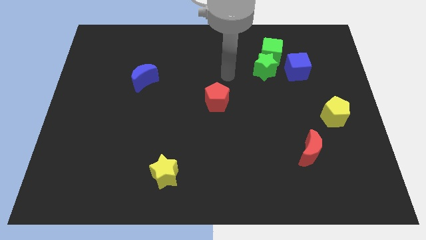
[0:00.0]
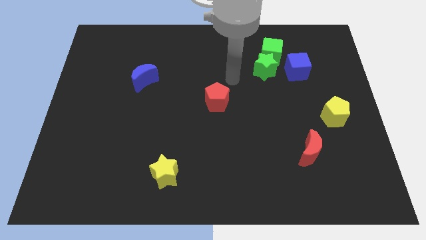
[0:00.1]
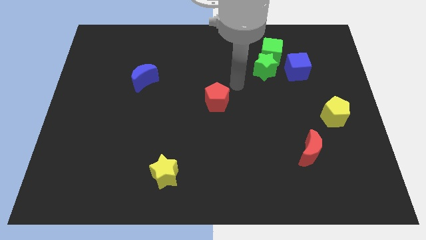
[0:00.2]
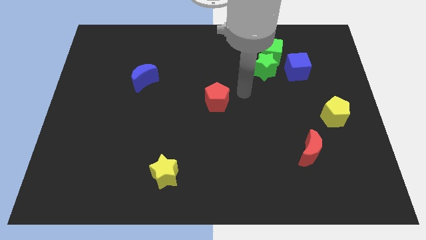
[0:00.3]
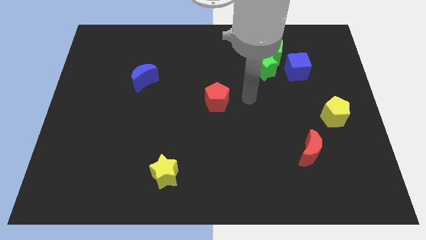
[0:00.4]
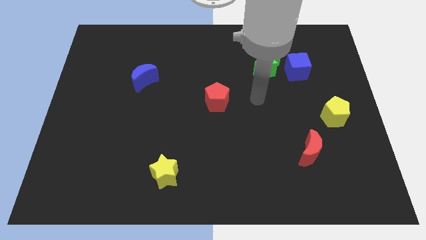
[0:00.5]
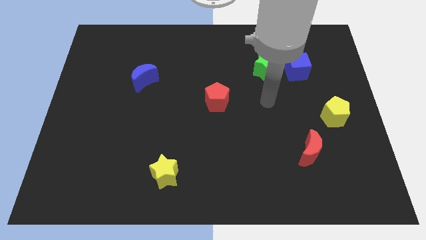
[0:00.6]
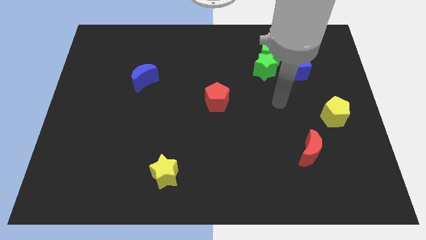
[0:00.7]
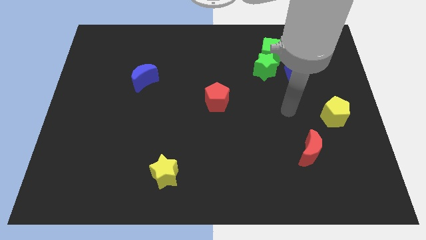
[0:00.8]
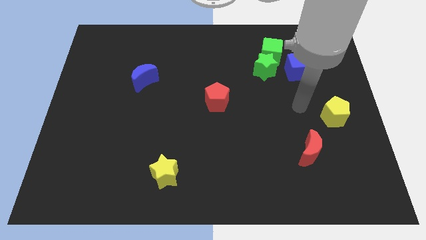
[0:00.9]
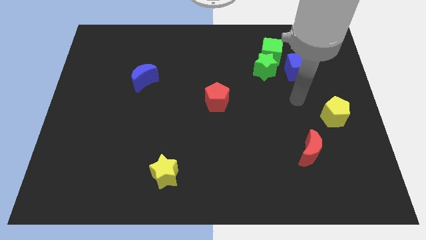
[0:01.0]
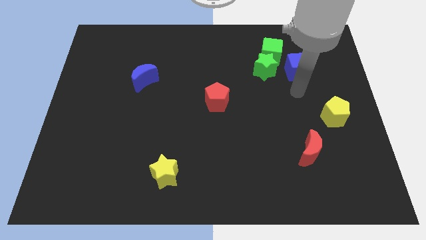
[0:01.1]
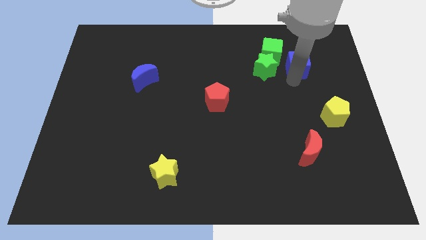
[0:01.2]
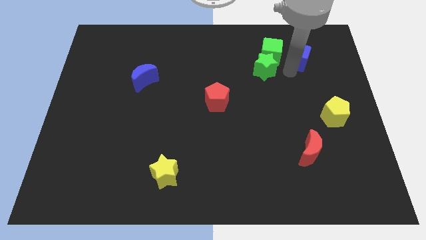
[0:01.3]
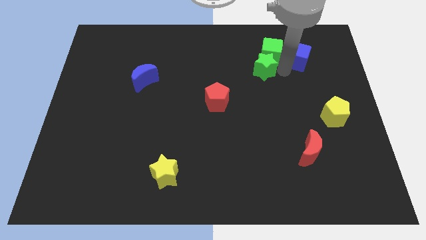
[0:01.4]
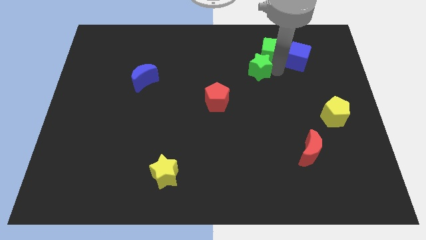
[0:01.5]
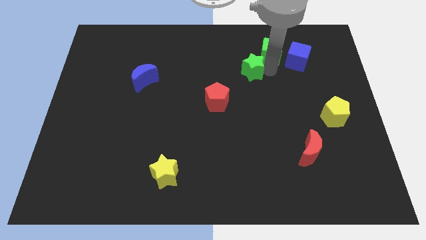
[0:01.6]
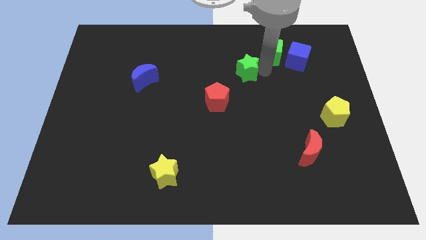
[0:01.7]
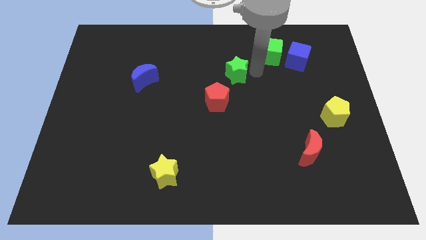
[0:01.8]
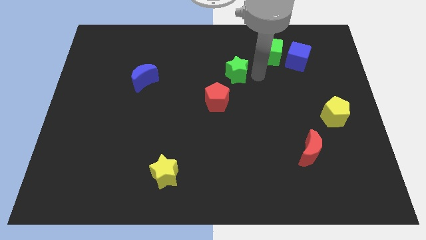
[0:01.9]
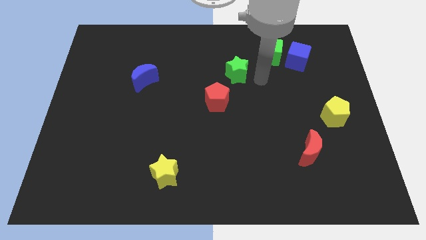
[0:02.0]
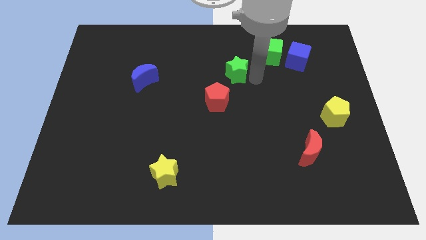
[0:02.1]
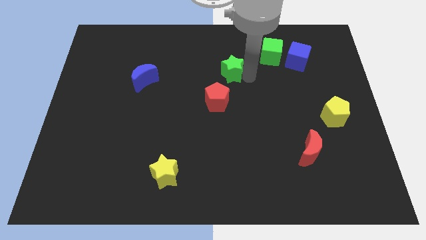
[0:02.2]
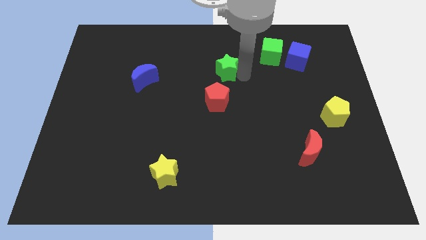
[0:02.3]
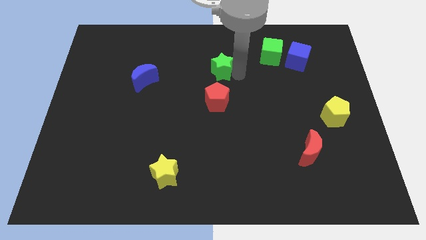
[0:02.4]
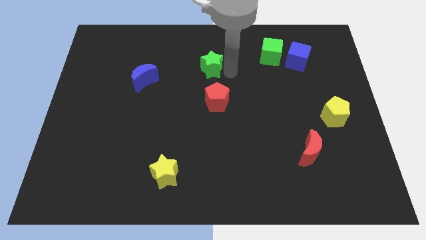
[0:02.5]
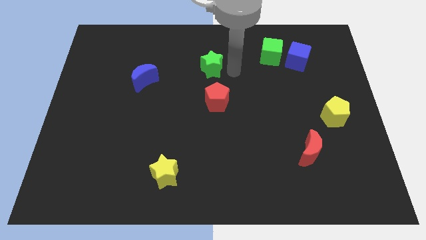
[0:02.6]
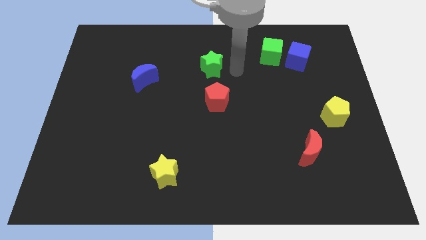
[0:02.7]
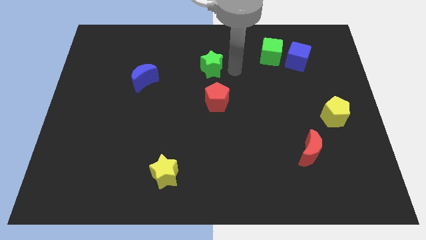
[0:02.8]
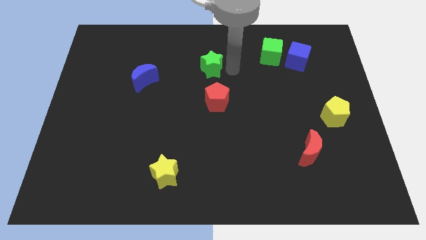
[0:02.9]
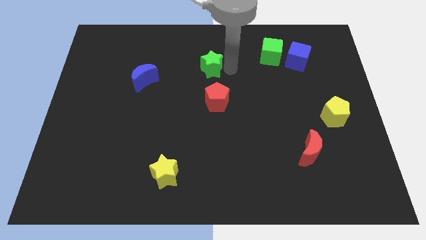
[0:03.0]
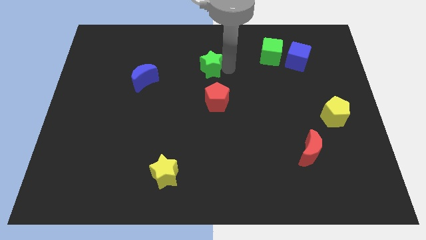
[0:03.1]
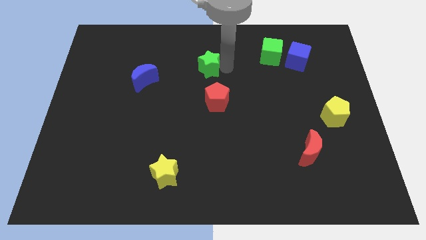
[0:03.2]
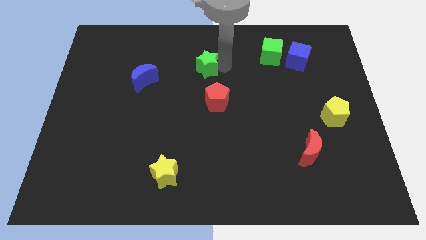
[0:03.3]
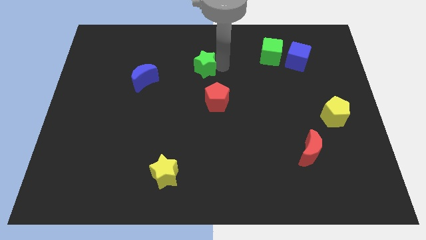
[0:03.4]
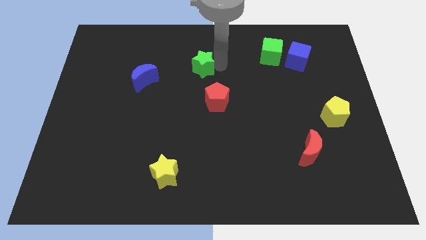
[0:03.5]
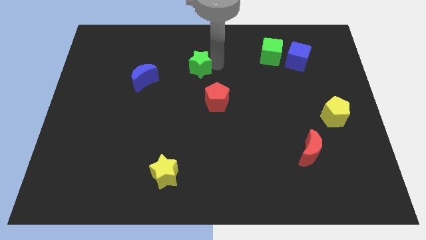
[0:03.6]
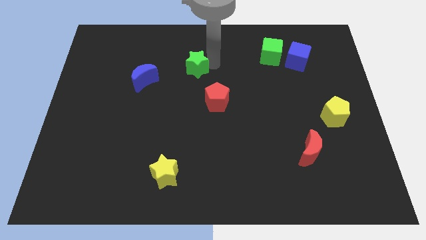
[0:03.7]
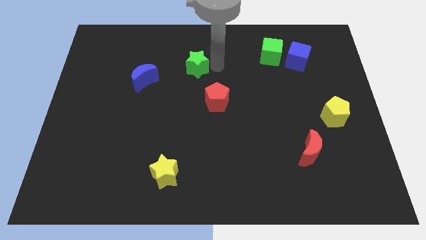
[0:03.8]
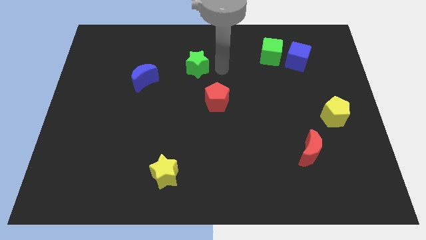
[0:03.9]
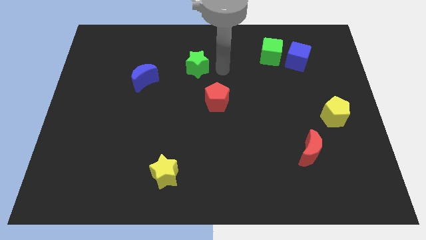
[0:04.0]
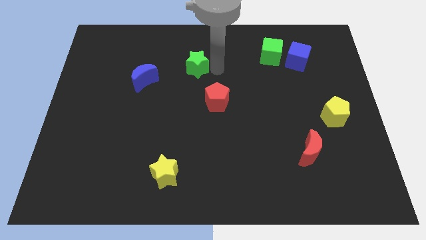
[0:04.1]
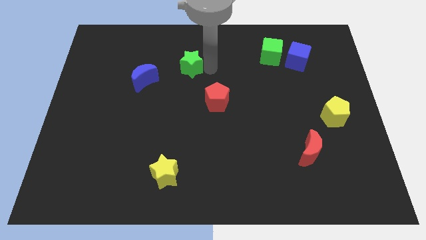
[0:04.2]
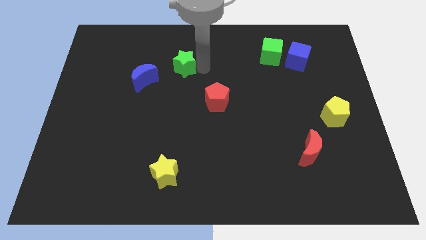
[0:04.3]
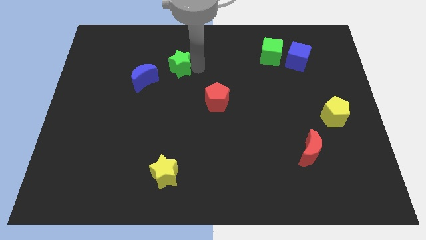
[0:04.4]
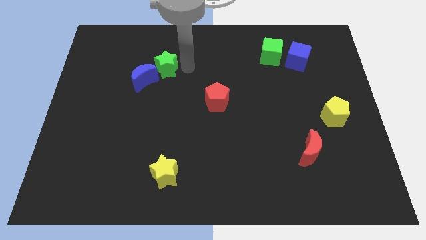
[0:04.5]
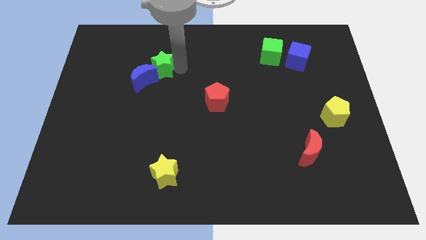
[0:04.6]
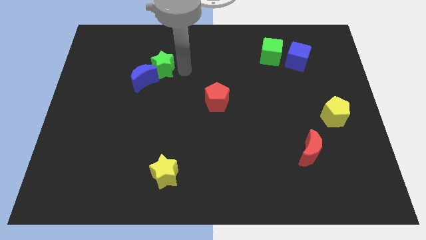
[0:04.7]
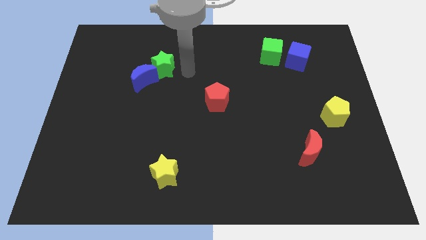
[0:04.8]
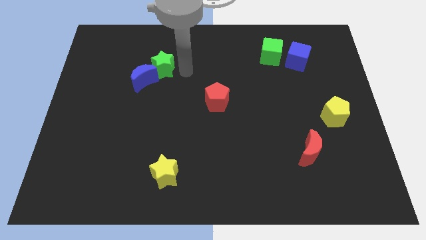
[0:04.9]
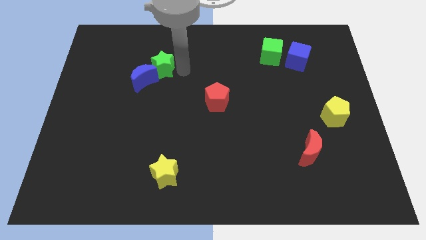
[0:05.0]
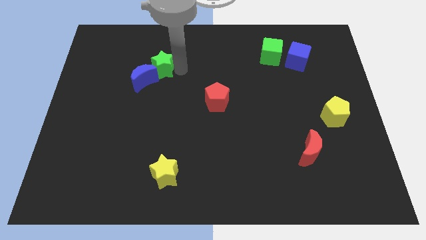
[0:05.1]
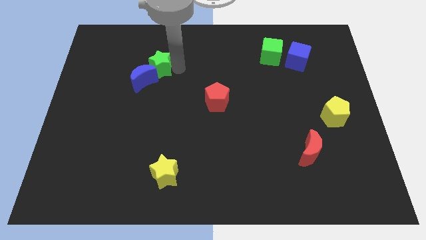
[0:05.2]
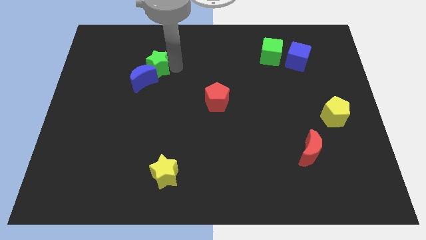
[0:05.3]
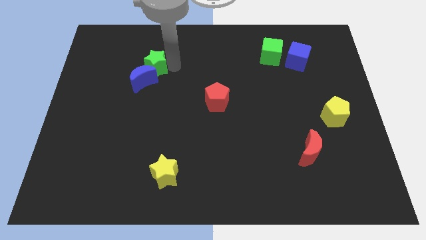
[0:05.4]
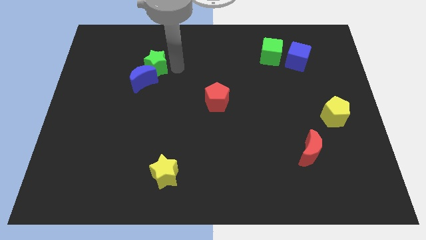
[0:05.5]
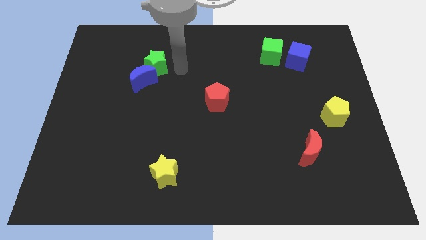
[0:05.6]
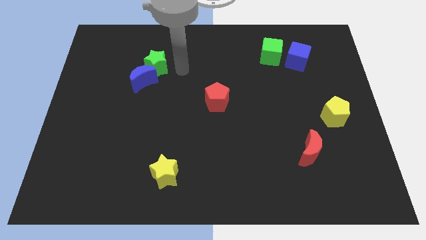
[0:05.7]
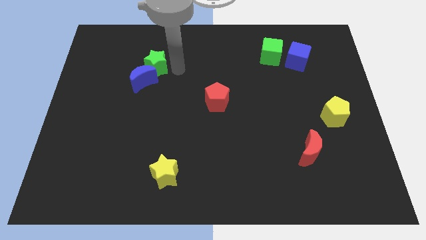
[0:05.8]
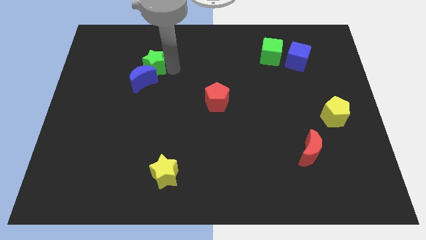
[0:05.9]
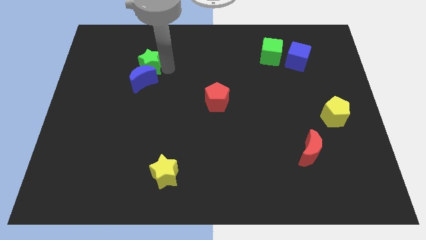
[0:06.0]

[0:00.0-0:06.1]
put the green star to the top left of the blue moon

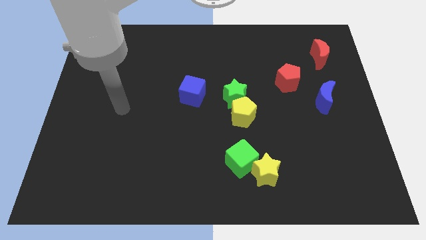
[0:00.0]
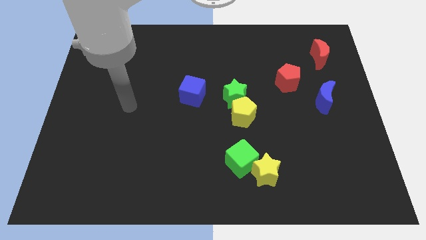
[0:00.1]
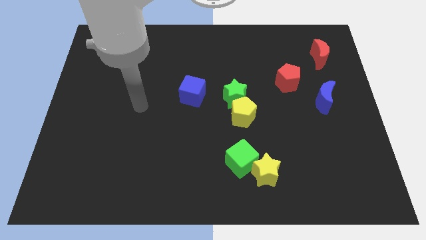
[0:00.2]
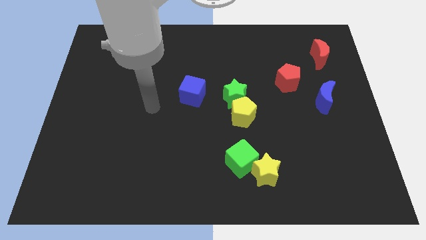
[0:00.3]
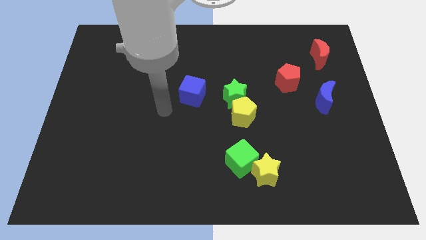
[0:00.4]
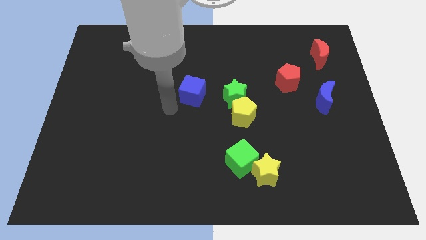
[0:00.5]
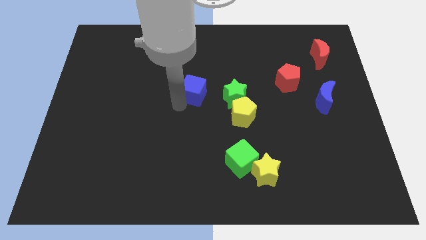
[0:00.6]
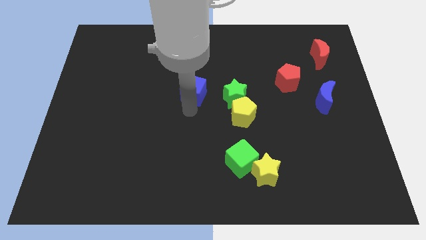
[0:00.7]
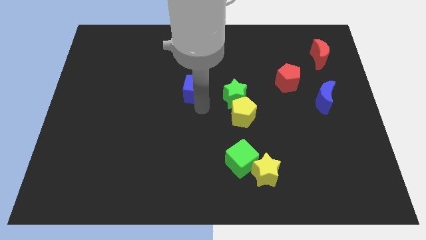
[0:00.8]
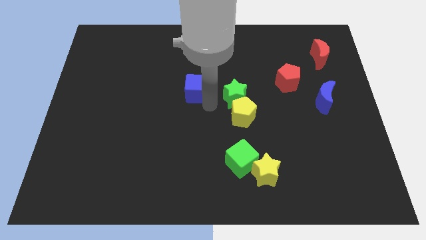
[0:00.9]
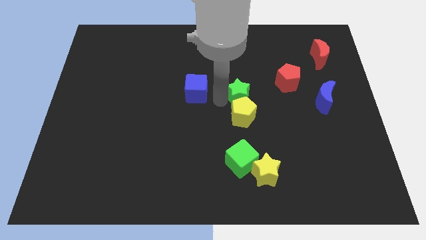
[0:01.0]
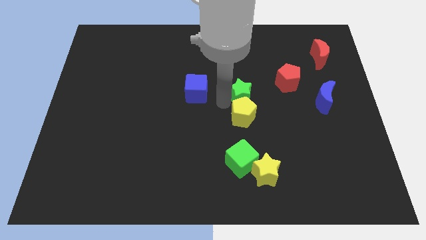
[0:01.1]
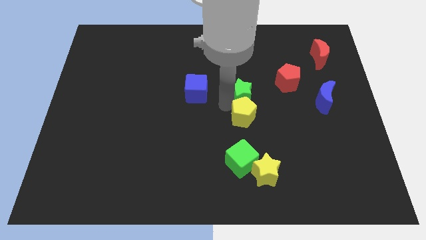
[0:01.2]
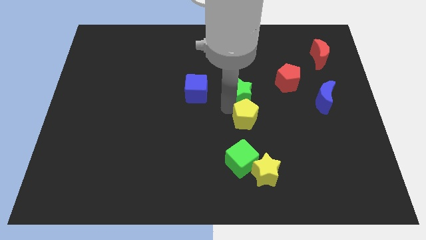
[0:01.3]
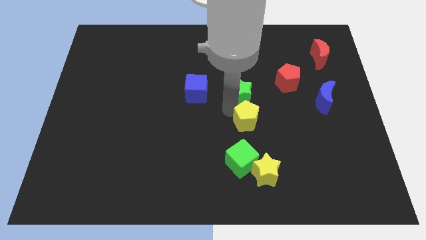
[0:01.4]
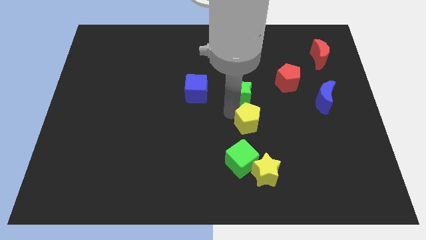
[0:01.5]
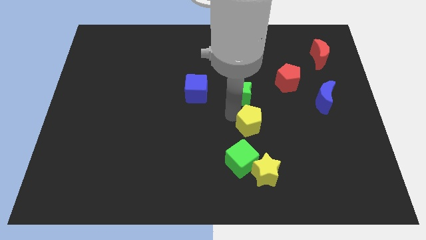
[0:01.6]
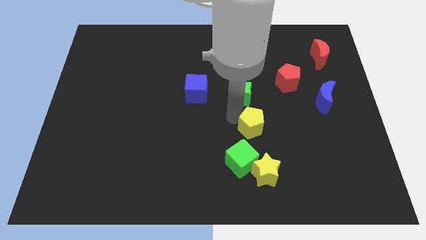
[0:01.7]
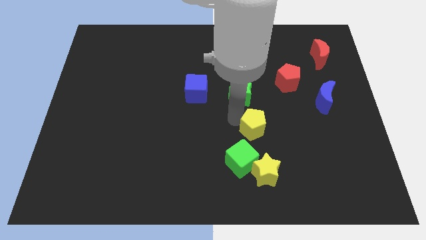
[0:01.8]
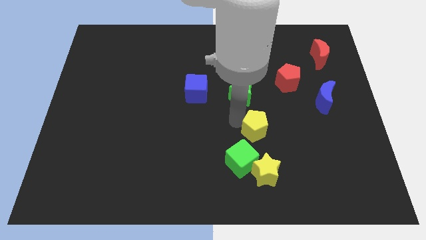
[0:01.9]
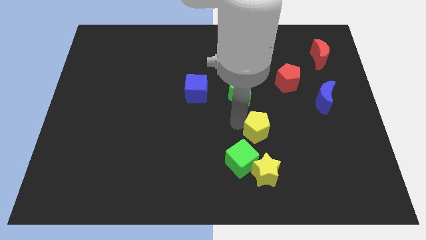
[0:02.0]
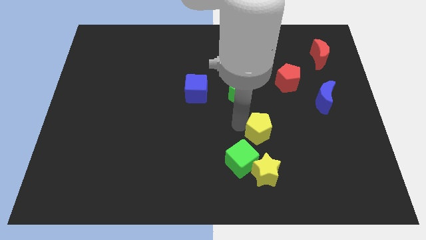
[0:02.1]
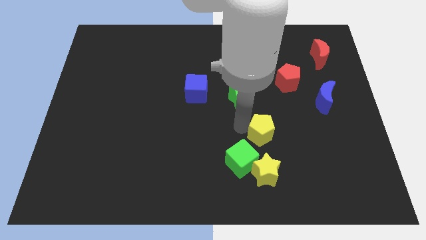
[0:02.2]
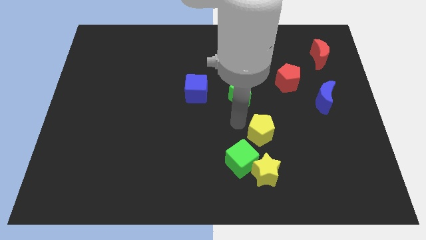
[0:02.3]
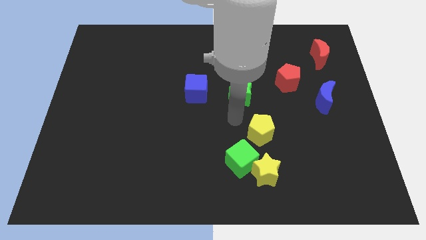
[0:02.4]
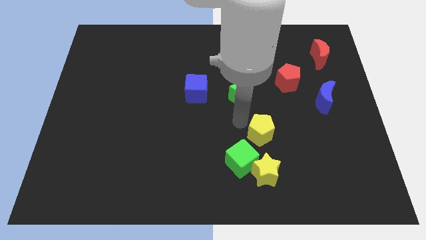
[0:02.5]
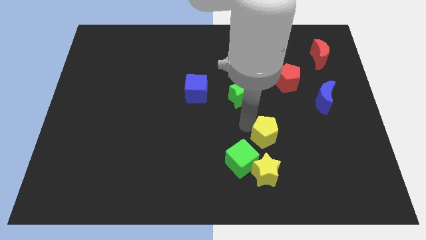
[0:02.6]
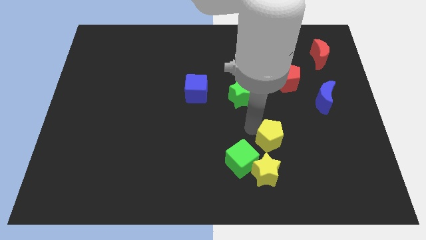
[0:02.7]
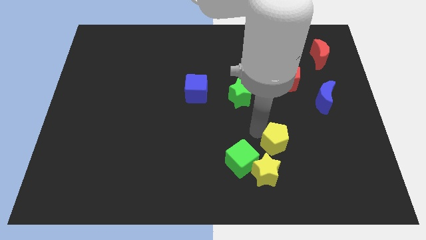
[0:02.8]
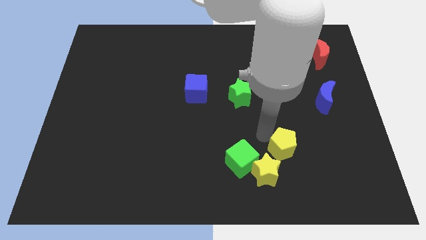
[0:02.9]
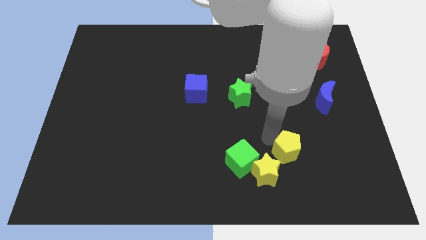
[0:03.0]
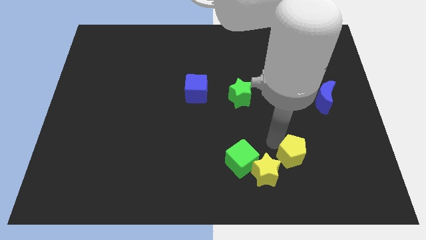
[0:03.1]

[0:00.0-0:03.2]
put the yellow pentagon to the right of the yellow star
